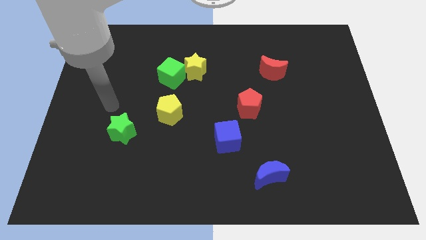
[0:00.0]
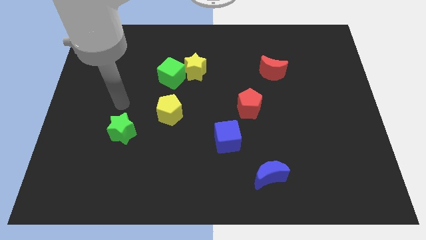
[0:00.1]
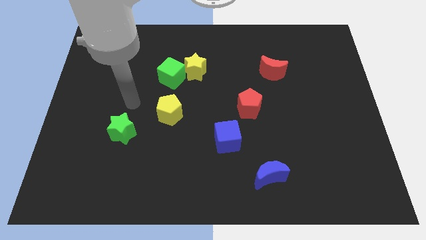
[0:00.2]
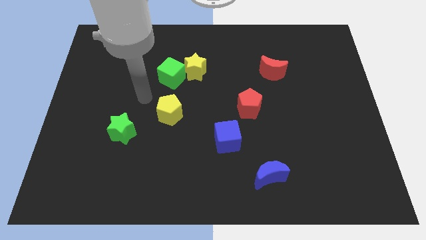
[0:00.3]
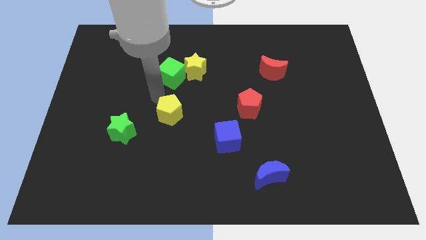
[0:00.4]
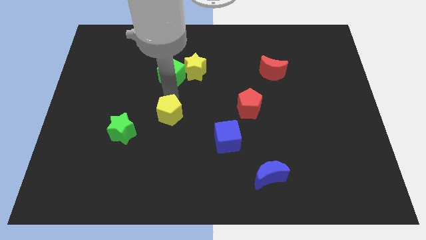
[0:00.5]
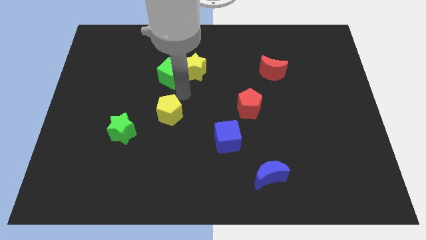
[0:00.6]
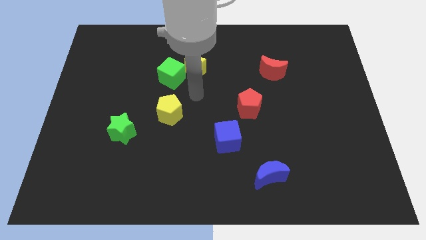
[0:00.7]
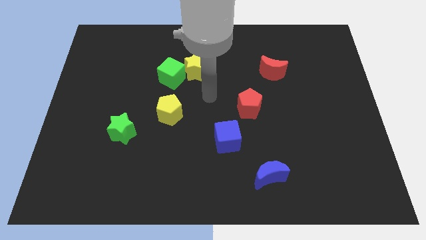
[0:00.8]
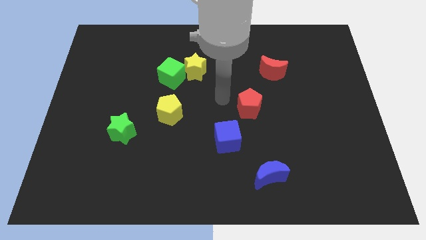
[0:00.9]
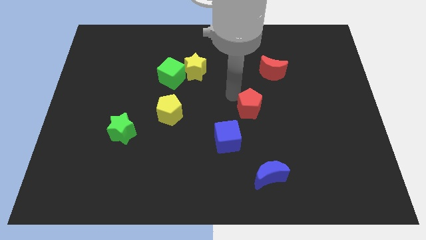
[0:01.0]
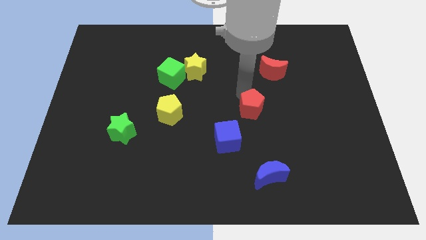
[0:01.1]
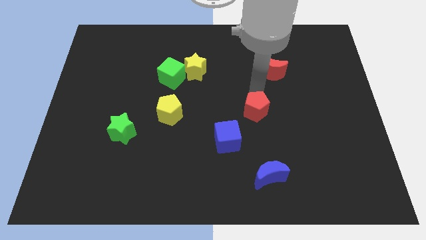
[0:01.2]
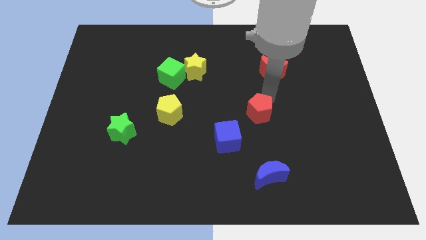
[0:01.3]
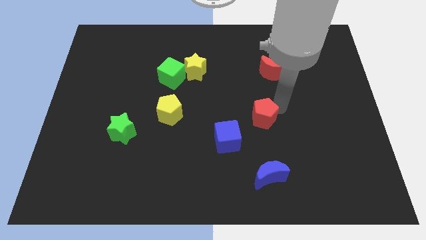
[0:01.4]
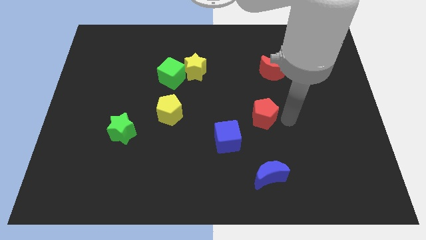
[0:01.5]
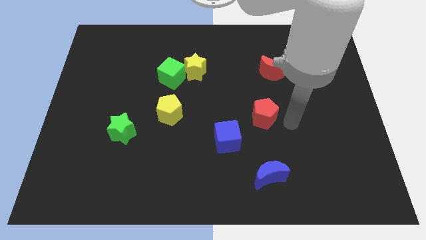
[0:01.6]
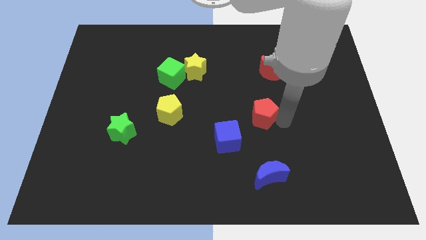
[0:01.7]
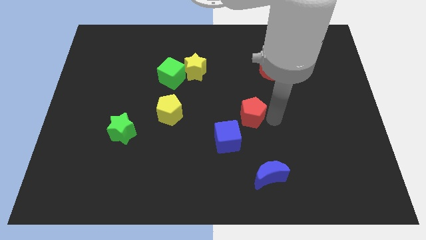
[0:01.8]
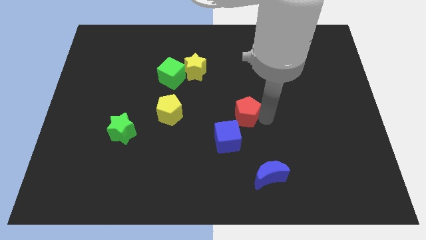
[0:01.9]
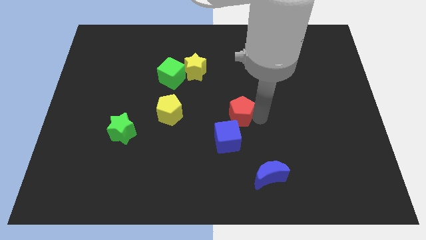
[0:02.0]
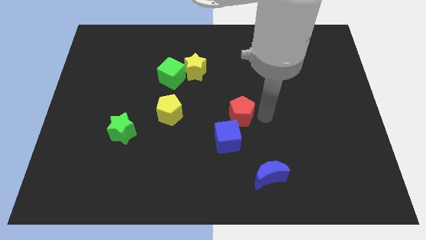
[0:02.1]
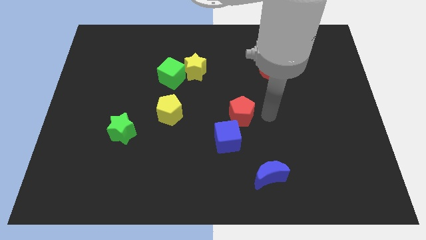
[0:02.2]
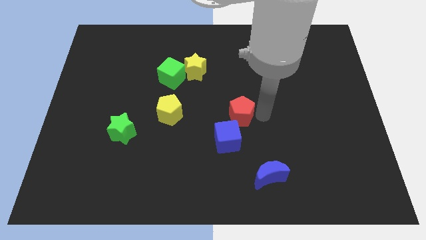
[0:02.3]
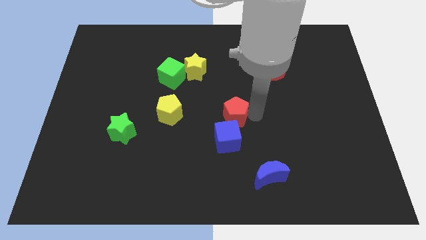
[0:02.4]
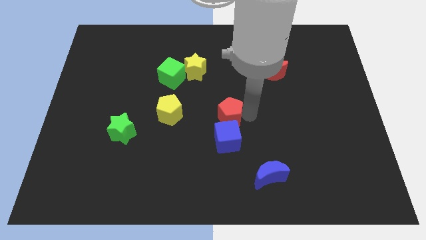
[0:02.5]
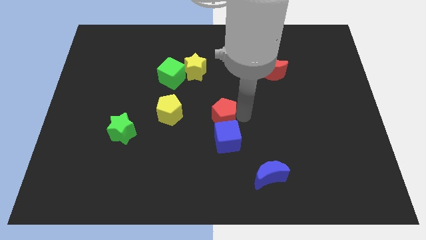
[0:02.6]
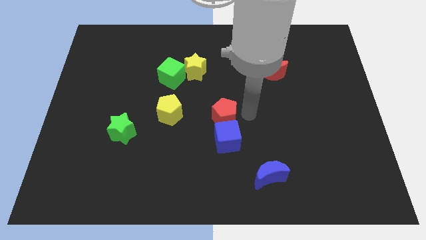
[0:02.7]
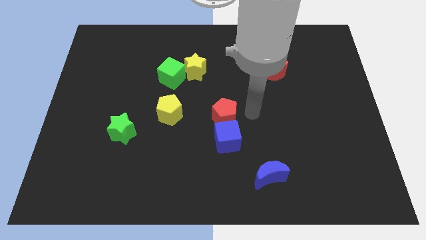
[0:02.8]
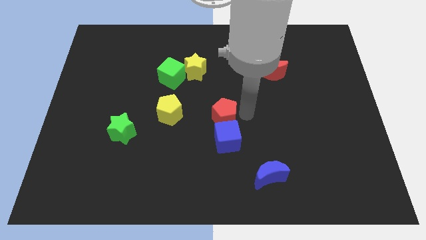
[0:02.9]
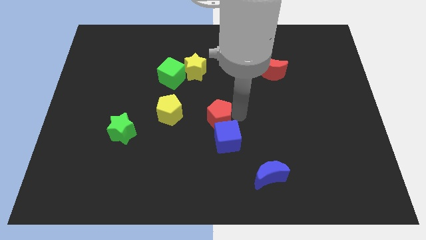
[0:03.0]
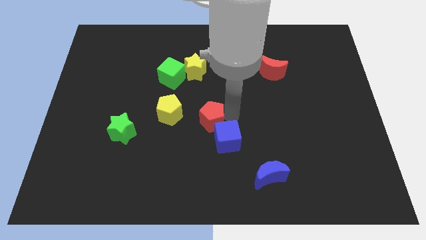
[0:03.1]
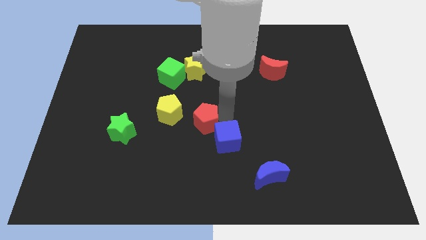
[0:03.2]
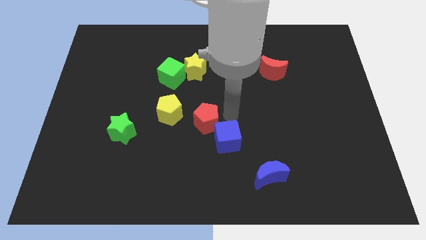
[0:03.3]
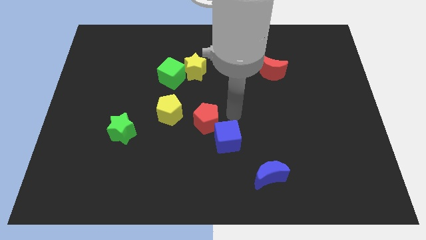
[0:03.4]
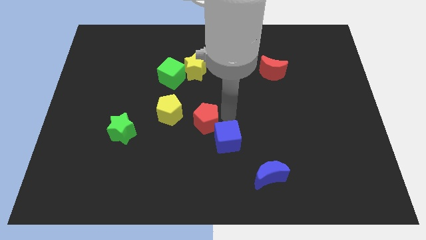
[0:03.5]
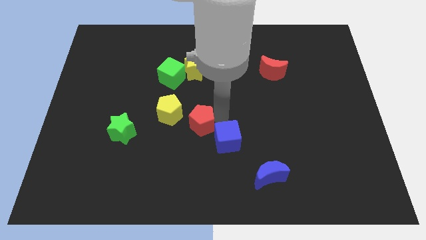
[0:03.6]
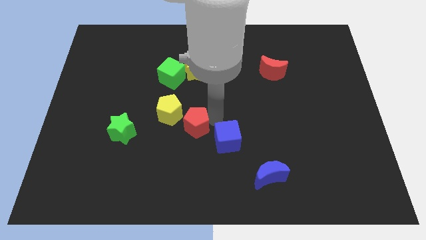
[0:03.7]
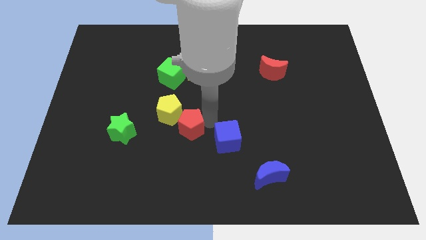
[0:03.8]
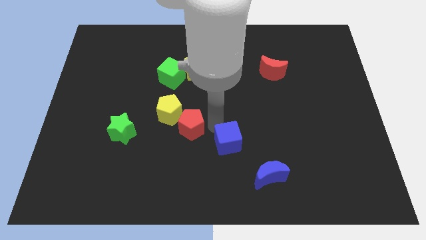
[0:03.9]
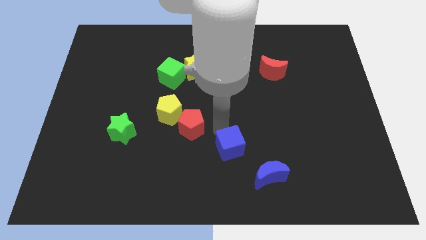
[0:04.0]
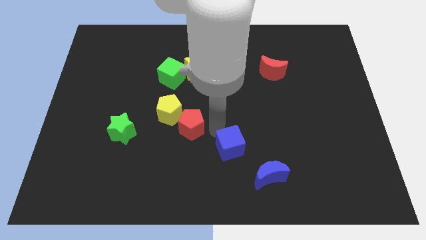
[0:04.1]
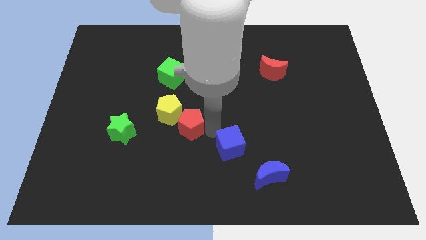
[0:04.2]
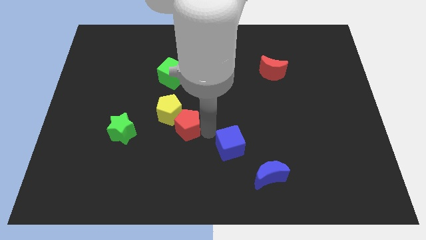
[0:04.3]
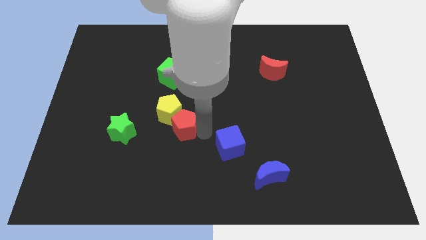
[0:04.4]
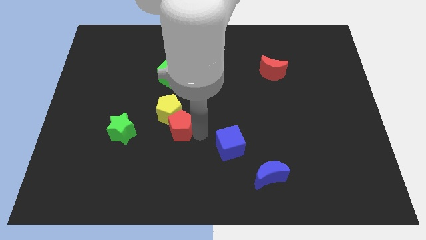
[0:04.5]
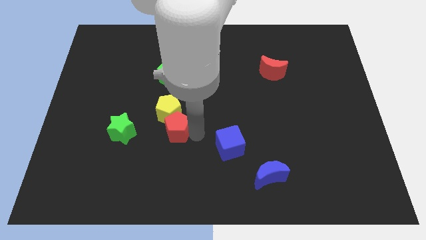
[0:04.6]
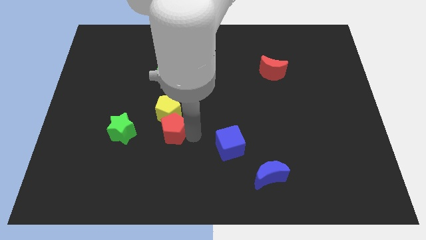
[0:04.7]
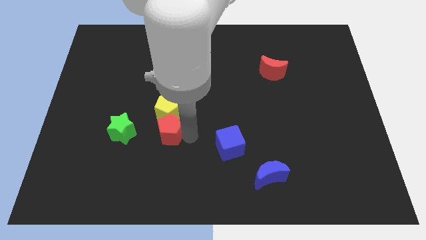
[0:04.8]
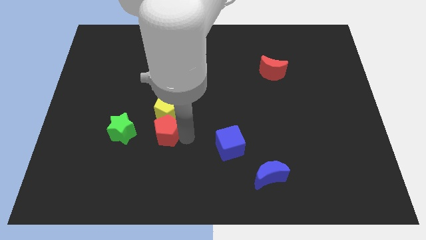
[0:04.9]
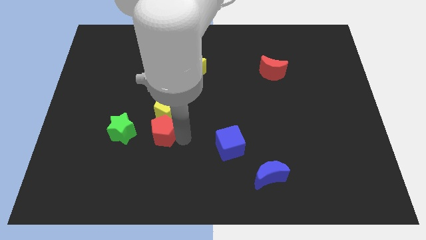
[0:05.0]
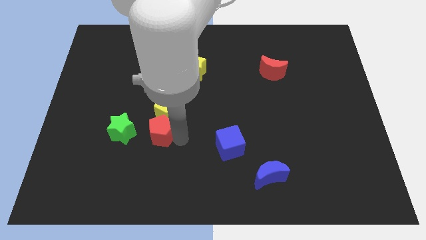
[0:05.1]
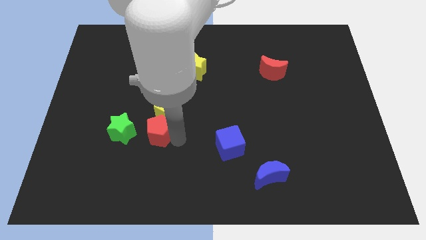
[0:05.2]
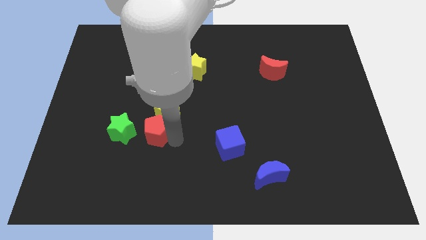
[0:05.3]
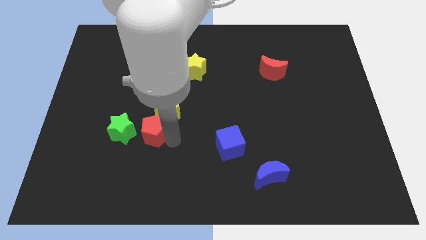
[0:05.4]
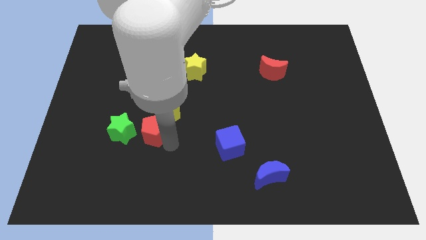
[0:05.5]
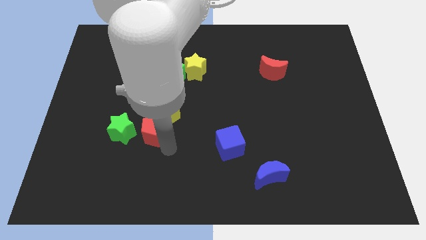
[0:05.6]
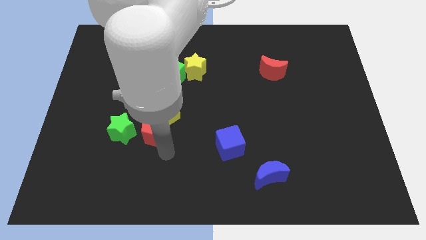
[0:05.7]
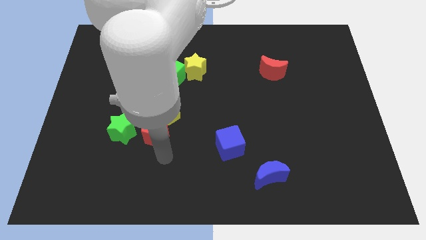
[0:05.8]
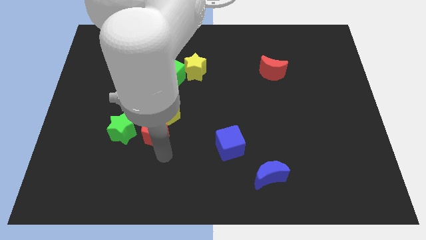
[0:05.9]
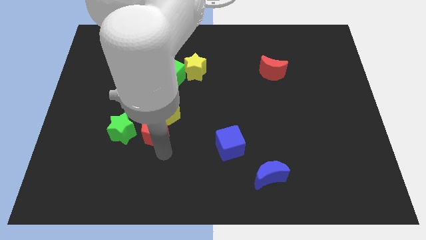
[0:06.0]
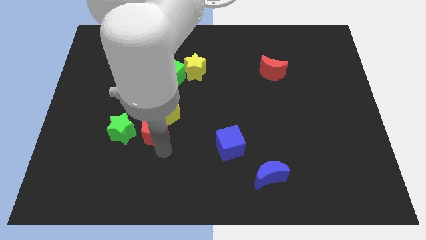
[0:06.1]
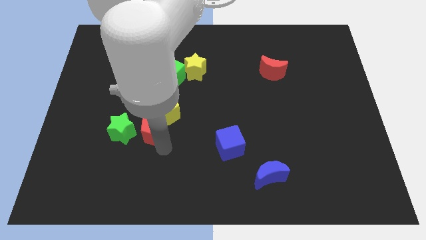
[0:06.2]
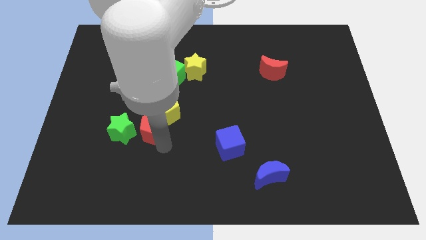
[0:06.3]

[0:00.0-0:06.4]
slide the red pentagon left

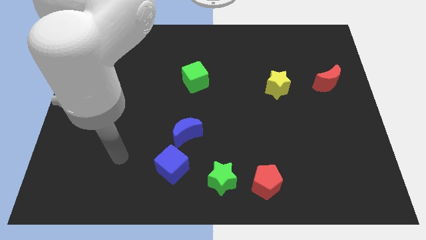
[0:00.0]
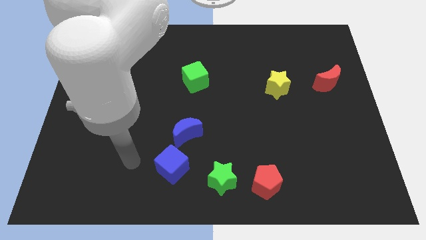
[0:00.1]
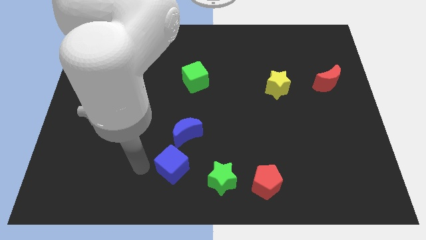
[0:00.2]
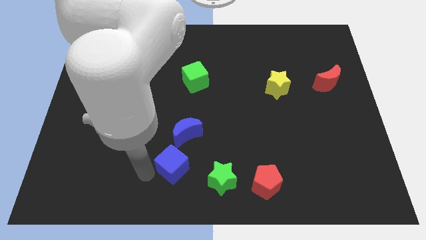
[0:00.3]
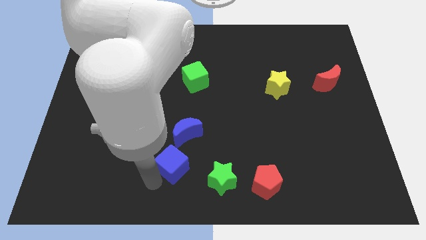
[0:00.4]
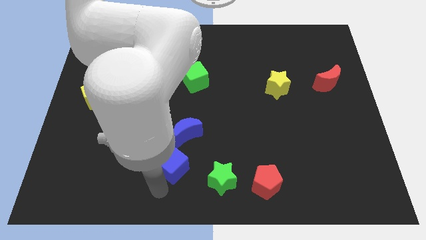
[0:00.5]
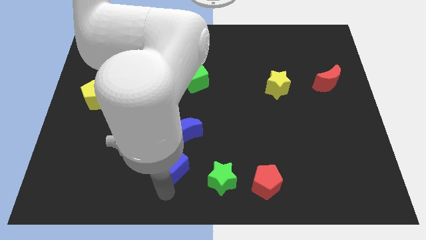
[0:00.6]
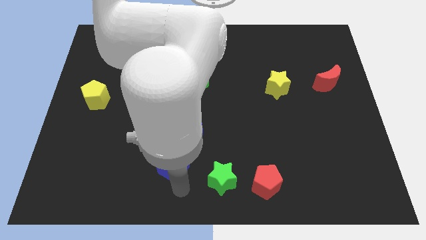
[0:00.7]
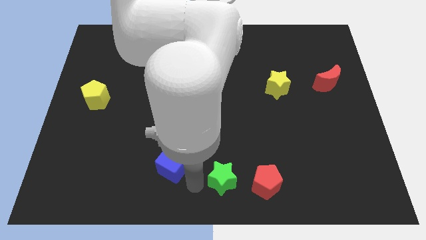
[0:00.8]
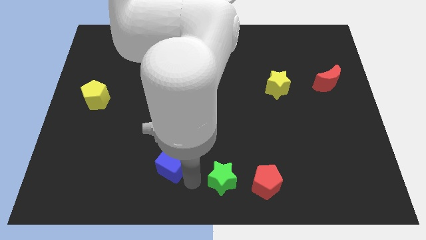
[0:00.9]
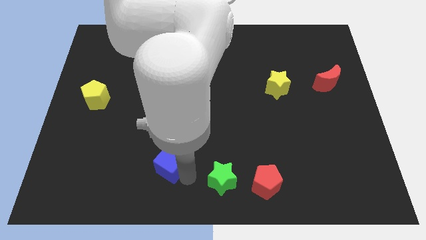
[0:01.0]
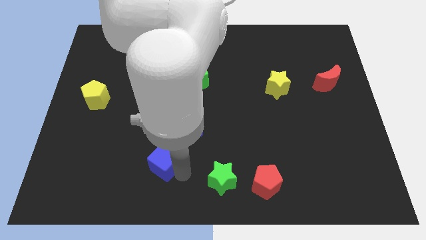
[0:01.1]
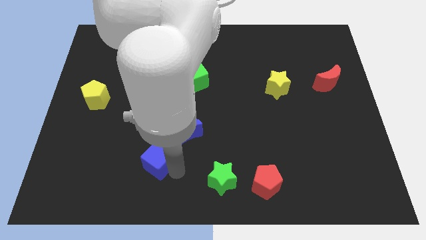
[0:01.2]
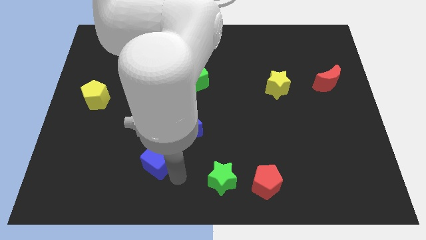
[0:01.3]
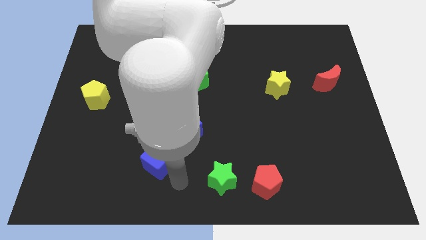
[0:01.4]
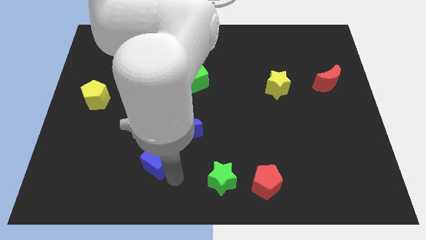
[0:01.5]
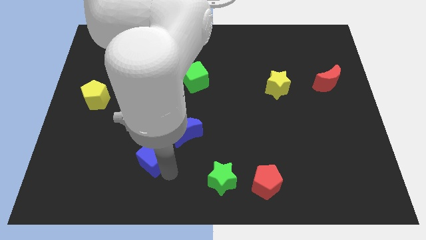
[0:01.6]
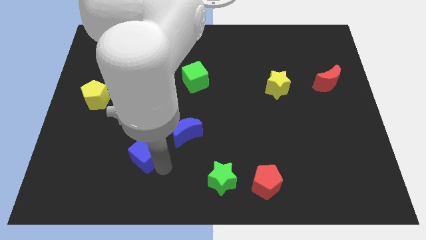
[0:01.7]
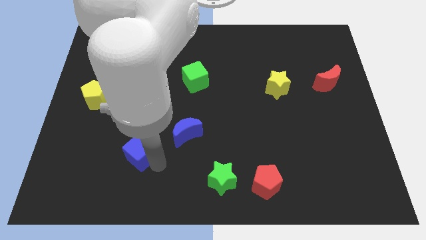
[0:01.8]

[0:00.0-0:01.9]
push the blue cube slightly up and to the left diagonally
